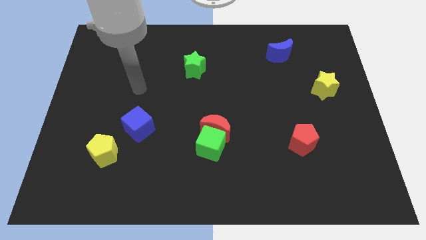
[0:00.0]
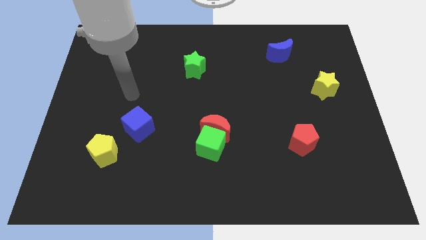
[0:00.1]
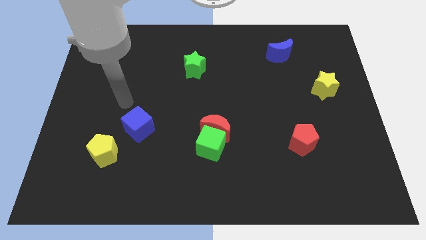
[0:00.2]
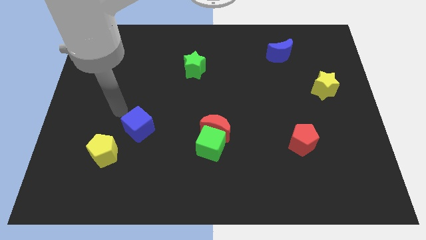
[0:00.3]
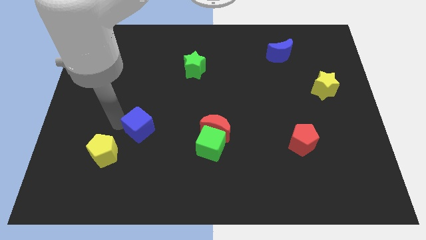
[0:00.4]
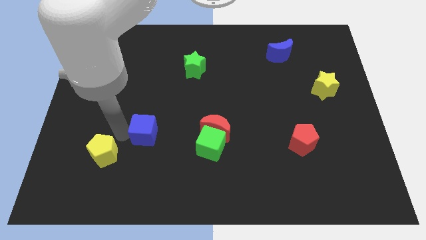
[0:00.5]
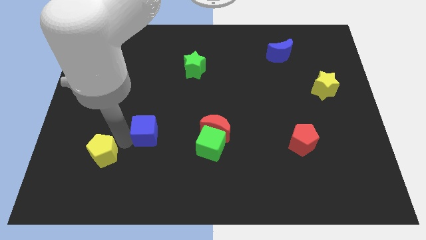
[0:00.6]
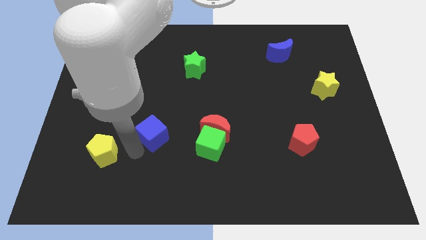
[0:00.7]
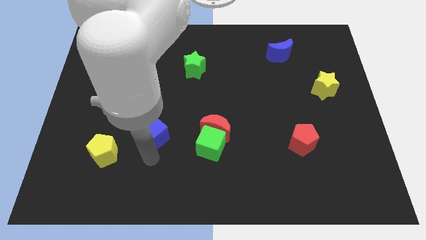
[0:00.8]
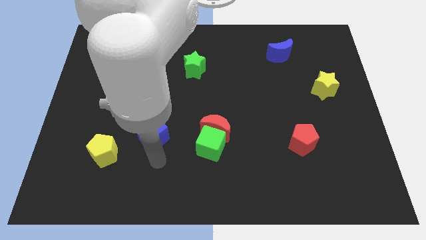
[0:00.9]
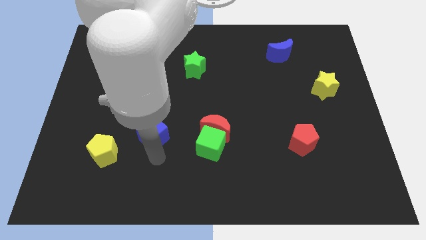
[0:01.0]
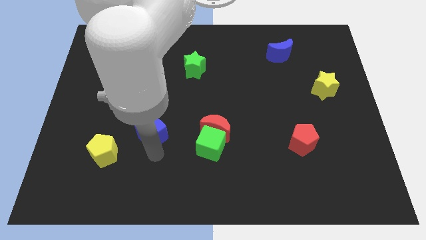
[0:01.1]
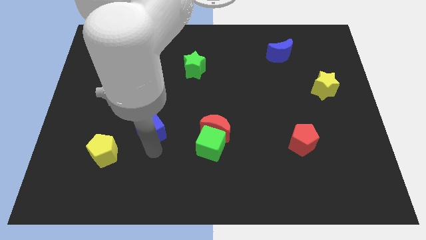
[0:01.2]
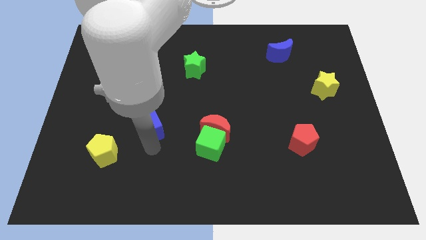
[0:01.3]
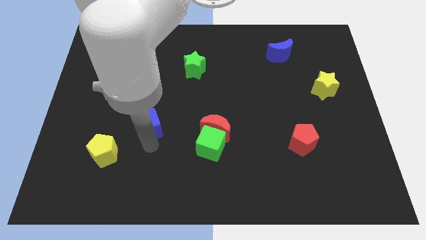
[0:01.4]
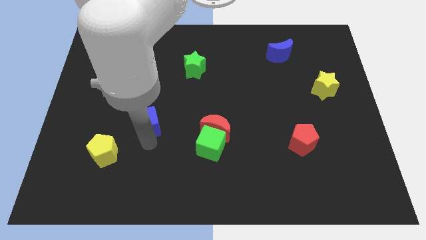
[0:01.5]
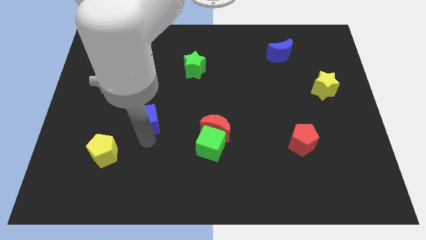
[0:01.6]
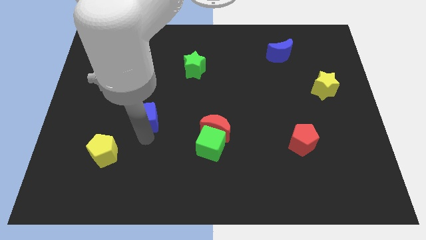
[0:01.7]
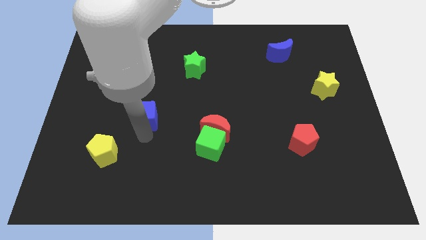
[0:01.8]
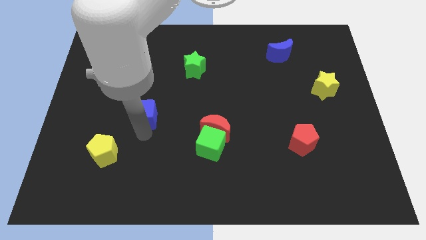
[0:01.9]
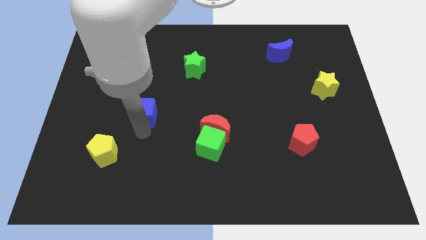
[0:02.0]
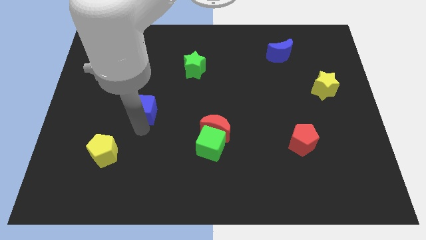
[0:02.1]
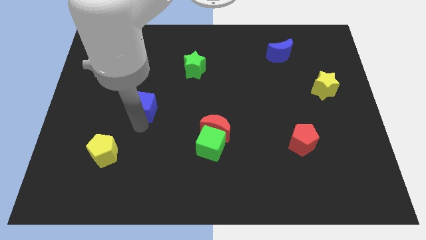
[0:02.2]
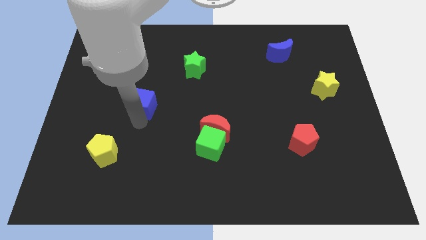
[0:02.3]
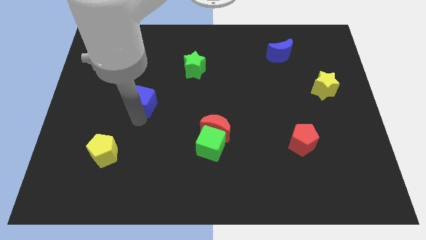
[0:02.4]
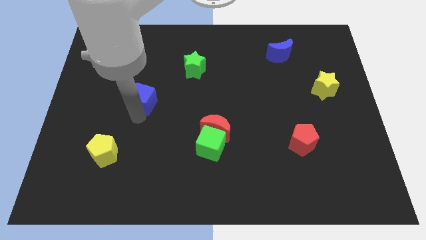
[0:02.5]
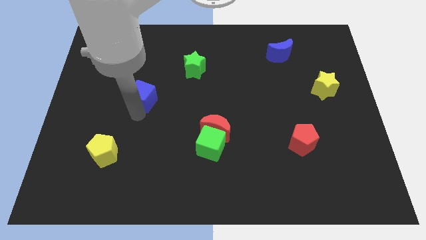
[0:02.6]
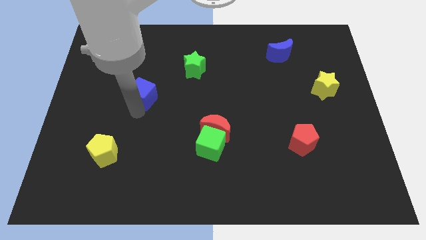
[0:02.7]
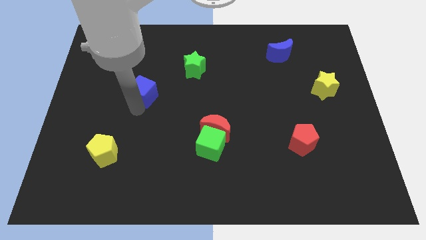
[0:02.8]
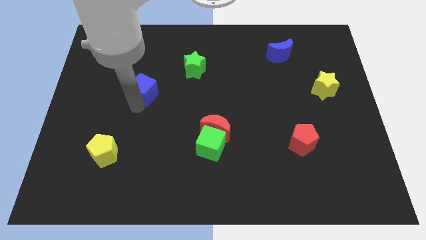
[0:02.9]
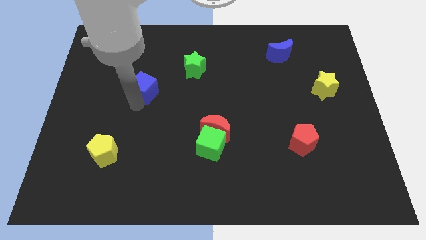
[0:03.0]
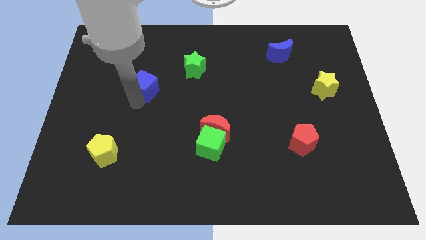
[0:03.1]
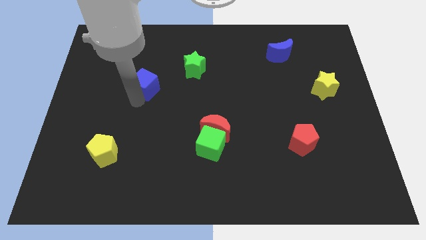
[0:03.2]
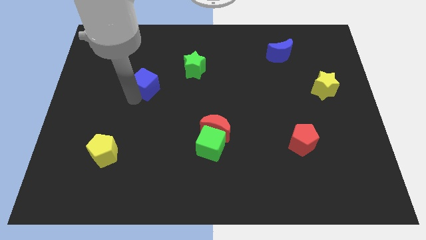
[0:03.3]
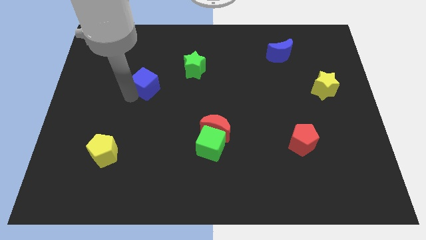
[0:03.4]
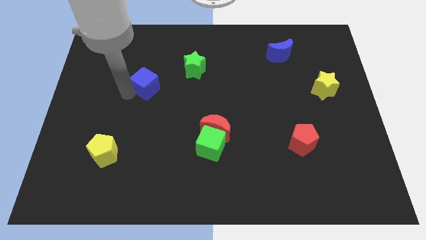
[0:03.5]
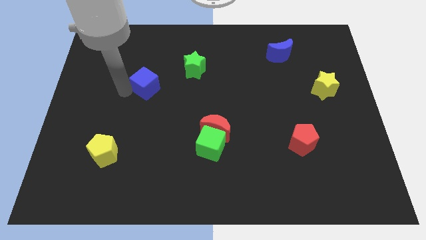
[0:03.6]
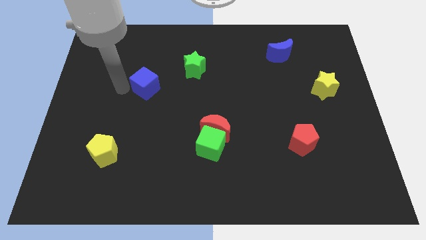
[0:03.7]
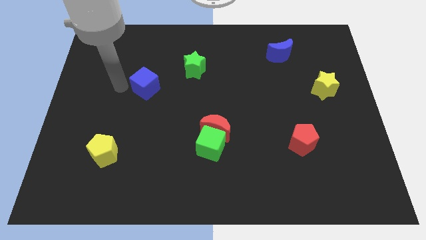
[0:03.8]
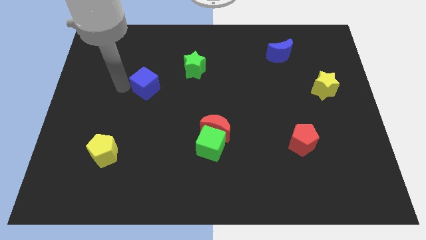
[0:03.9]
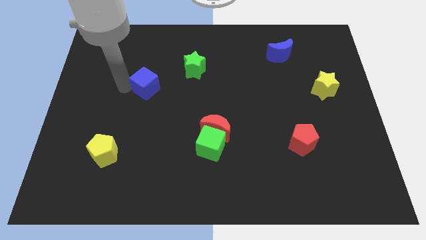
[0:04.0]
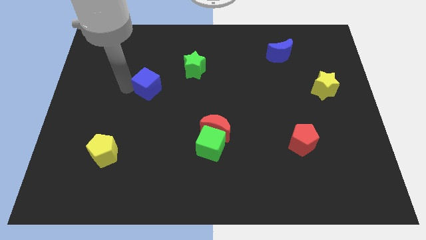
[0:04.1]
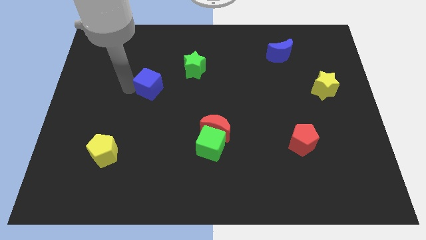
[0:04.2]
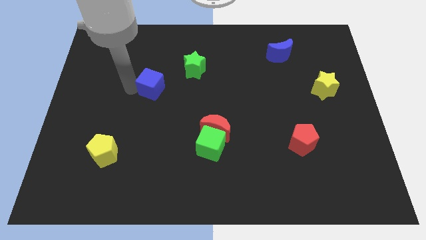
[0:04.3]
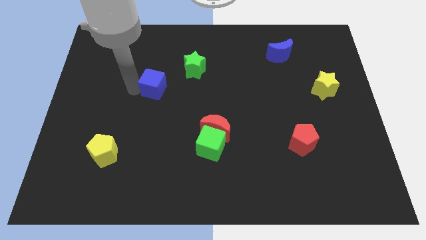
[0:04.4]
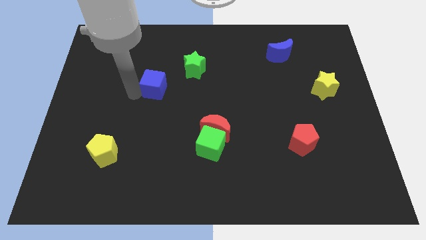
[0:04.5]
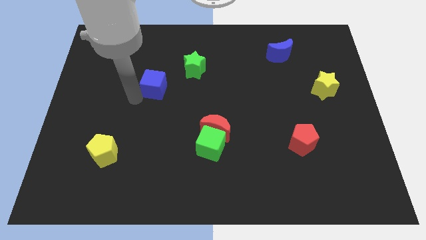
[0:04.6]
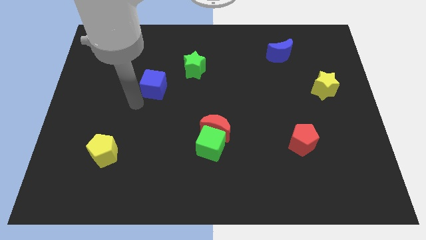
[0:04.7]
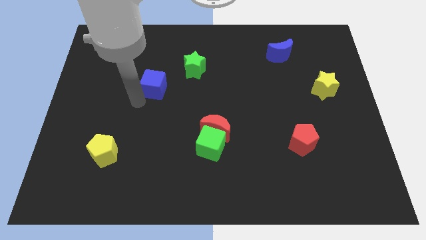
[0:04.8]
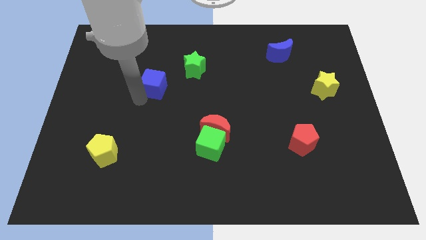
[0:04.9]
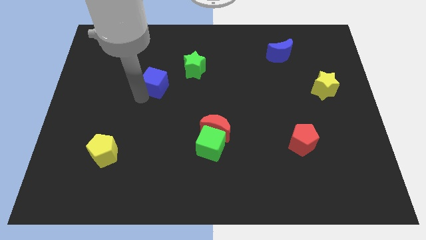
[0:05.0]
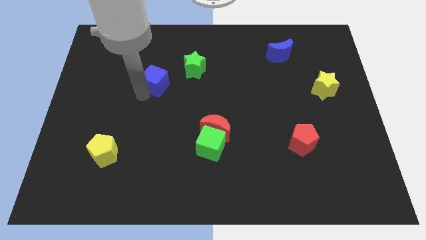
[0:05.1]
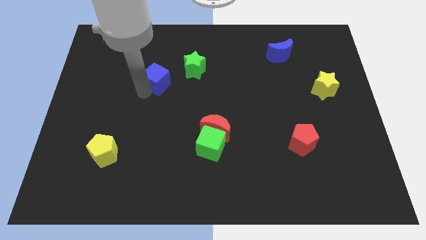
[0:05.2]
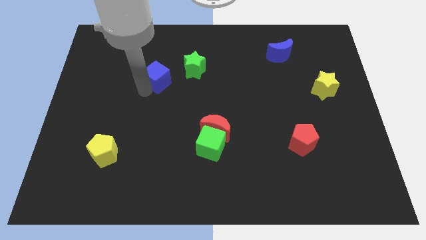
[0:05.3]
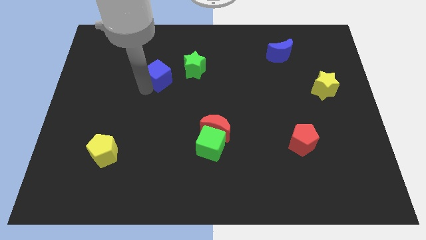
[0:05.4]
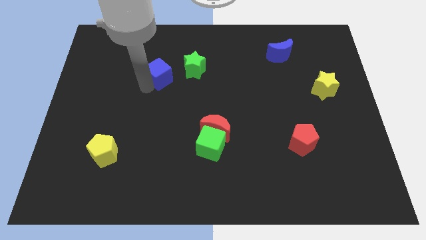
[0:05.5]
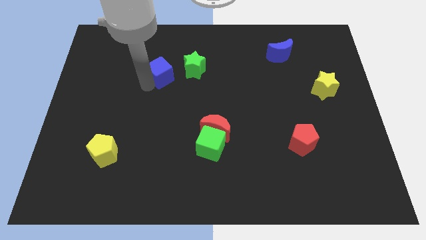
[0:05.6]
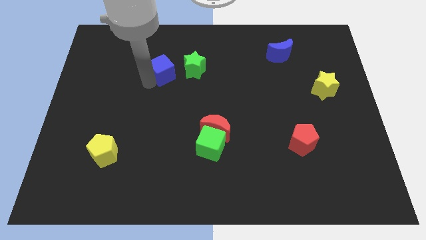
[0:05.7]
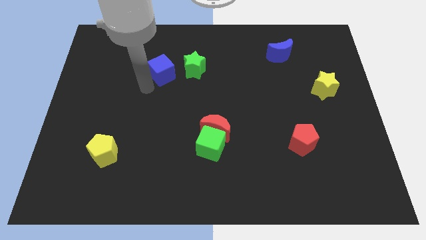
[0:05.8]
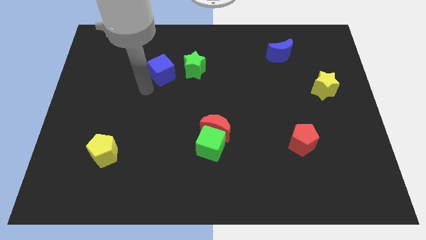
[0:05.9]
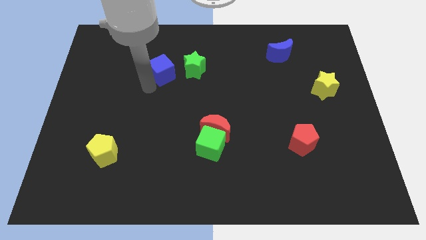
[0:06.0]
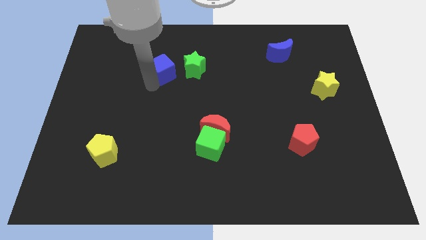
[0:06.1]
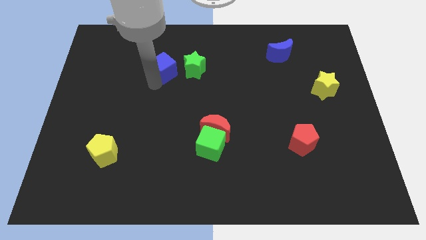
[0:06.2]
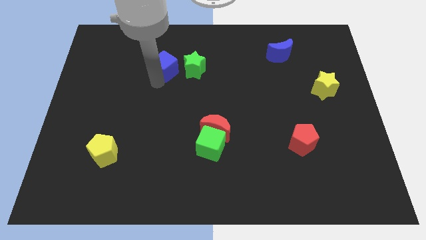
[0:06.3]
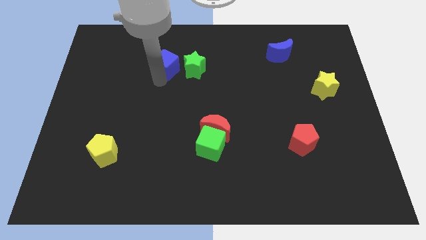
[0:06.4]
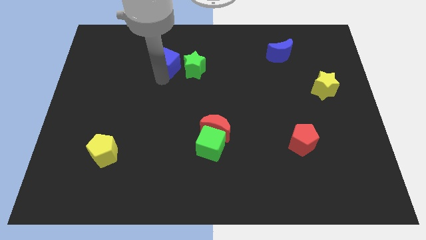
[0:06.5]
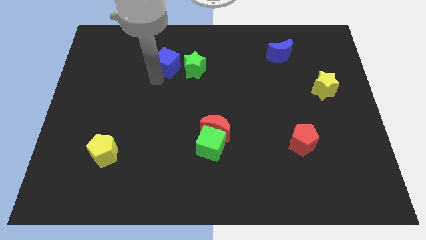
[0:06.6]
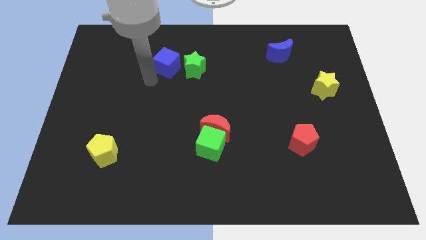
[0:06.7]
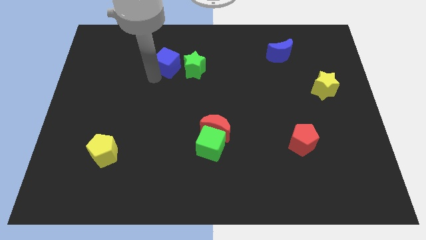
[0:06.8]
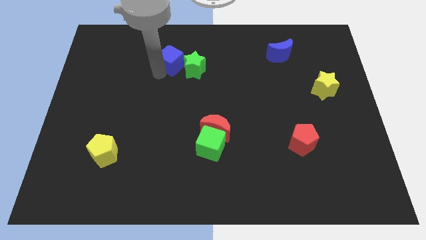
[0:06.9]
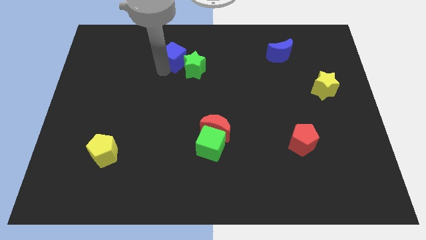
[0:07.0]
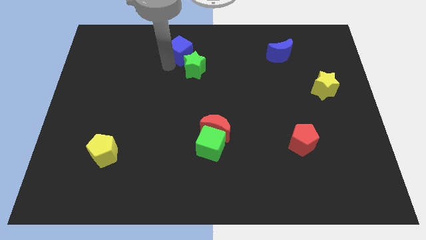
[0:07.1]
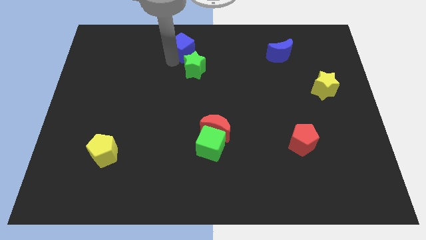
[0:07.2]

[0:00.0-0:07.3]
push the blue cube to the top side
